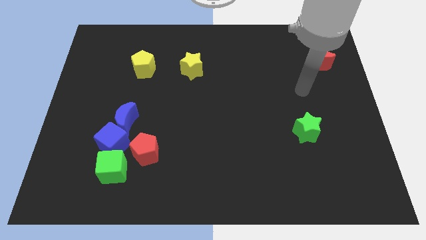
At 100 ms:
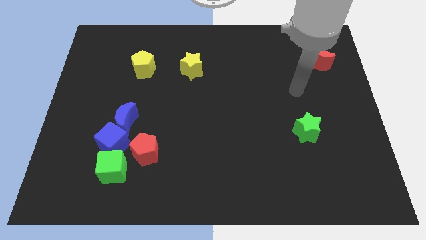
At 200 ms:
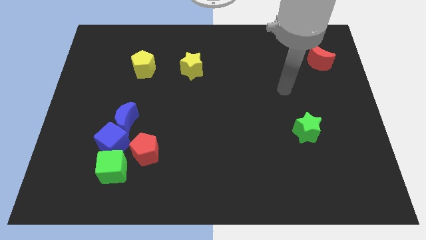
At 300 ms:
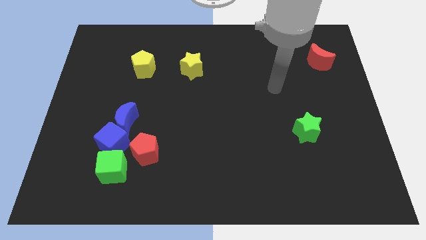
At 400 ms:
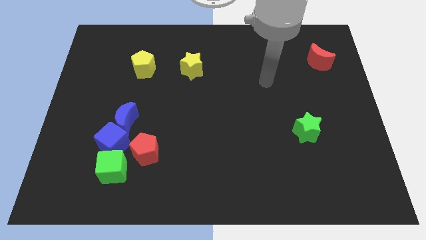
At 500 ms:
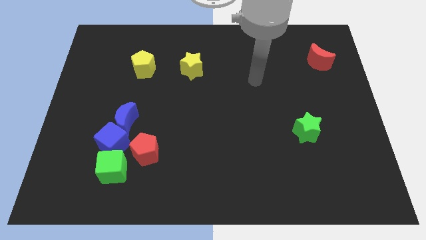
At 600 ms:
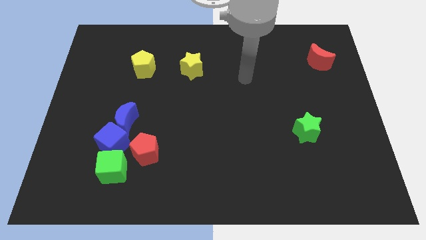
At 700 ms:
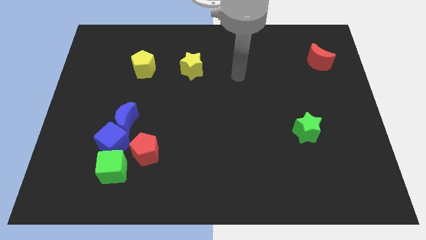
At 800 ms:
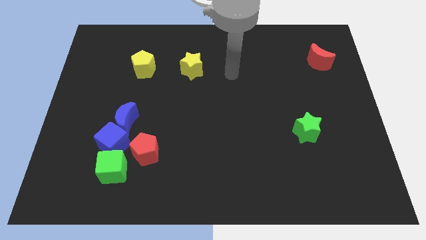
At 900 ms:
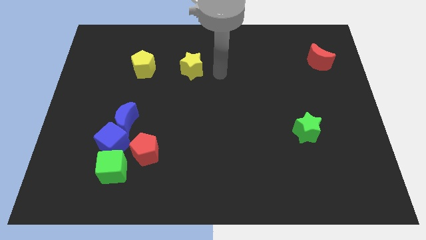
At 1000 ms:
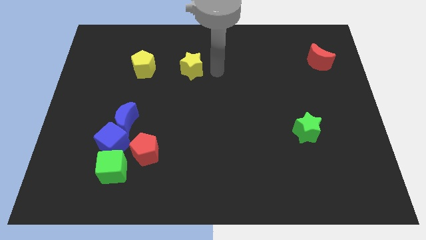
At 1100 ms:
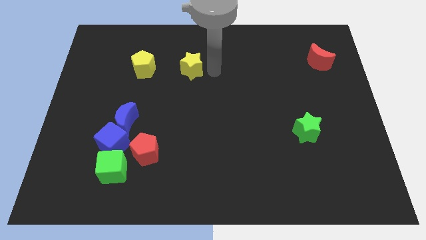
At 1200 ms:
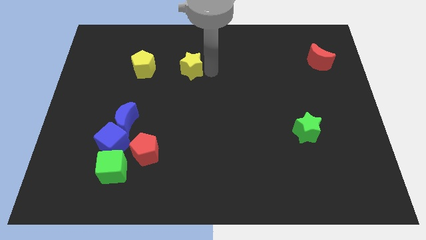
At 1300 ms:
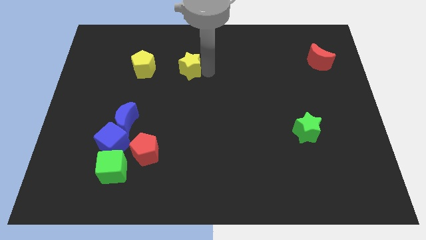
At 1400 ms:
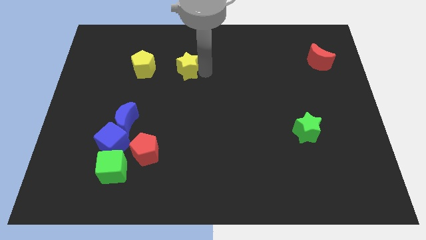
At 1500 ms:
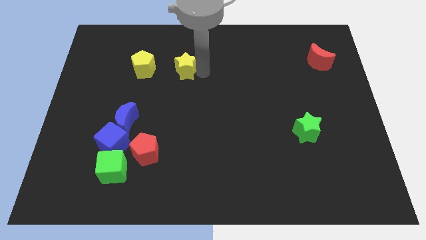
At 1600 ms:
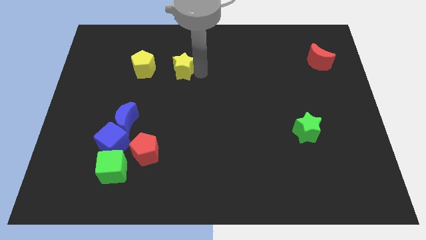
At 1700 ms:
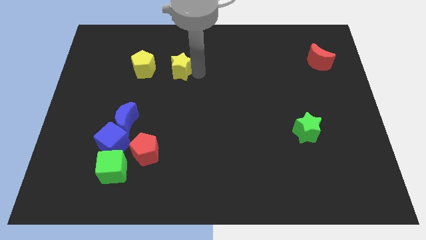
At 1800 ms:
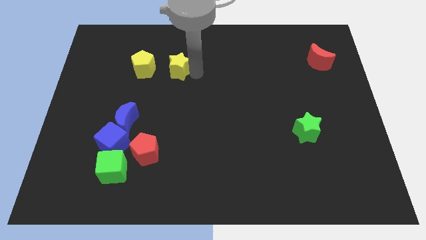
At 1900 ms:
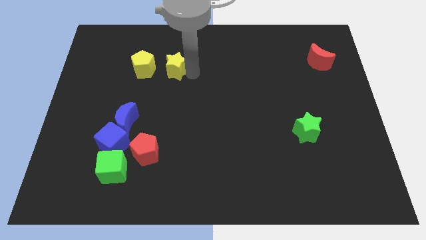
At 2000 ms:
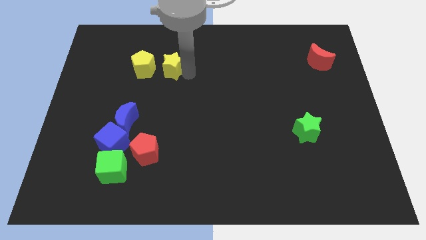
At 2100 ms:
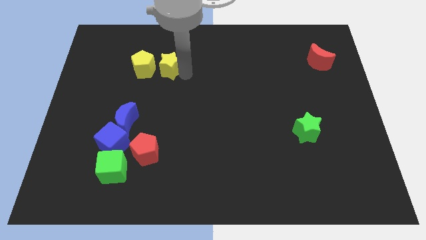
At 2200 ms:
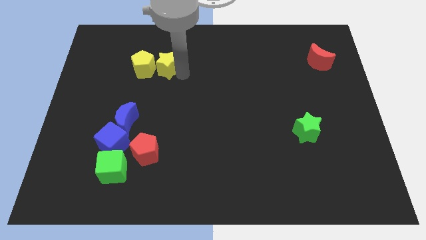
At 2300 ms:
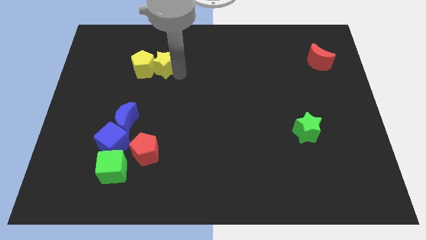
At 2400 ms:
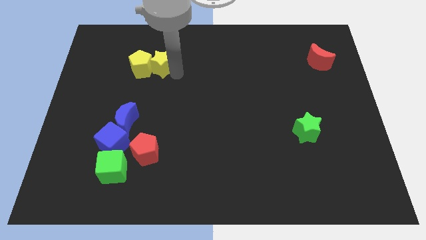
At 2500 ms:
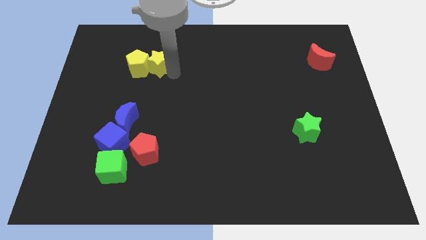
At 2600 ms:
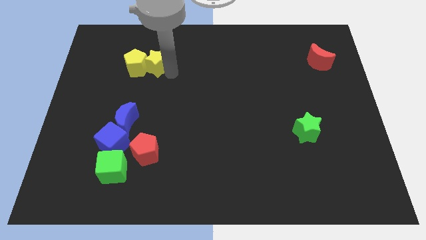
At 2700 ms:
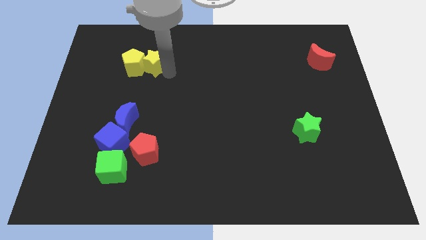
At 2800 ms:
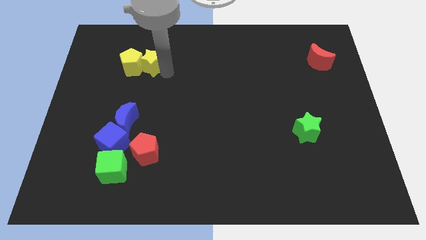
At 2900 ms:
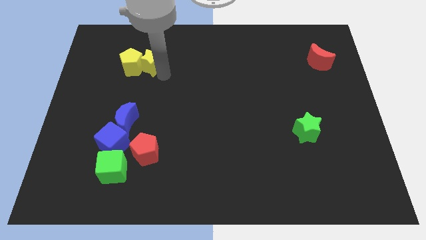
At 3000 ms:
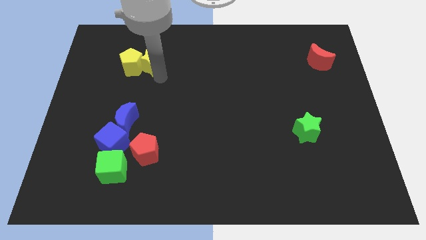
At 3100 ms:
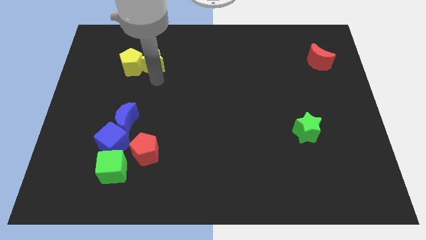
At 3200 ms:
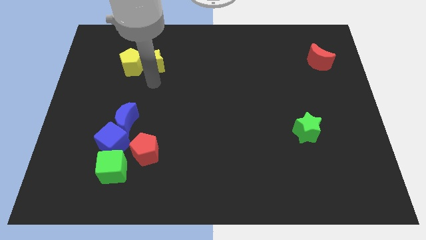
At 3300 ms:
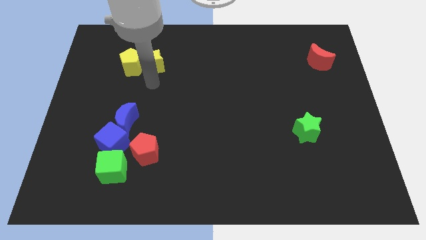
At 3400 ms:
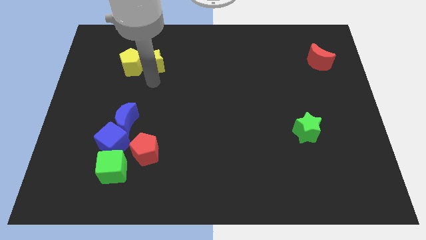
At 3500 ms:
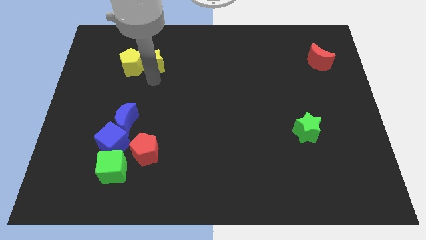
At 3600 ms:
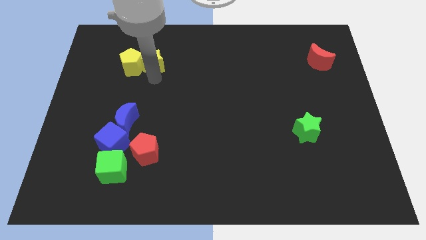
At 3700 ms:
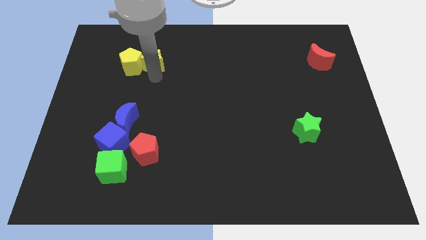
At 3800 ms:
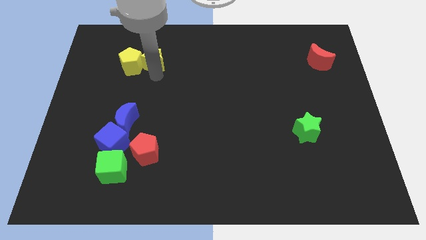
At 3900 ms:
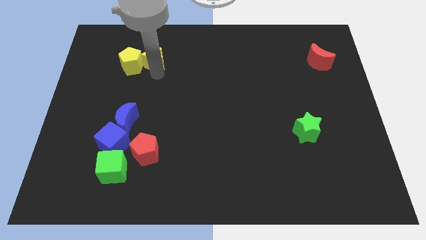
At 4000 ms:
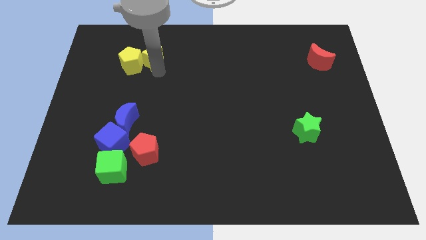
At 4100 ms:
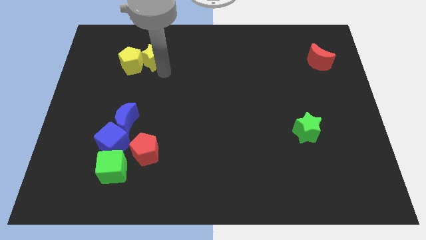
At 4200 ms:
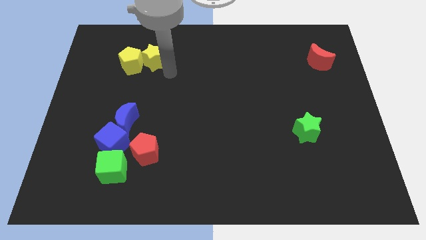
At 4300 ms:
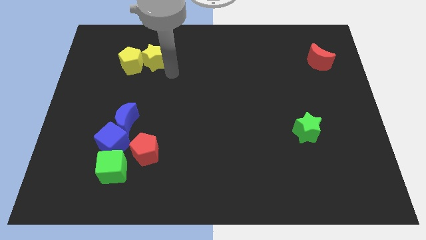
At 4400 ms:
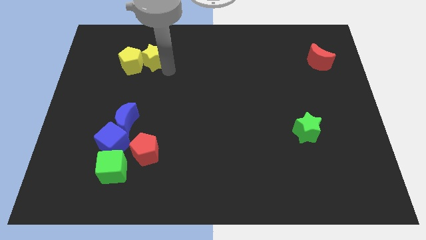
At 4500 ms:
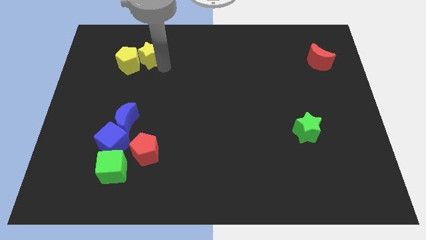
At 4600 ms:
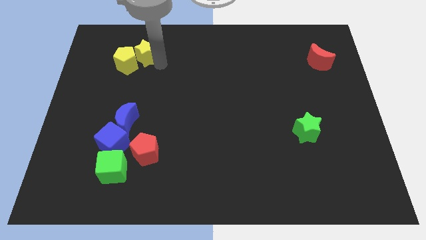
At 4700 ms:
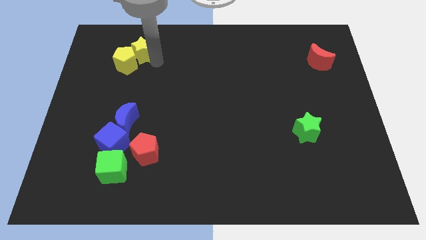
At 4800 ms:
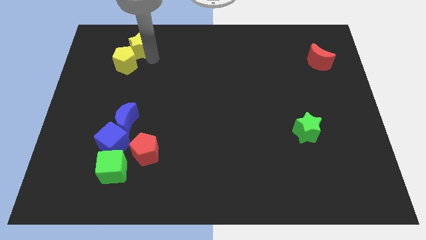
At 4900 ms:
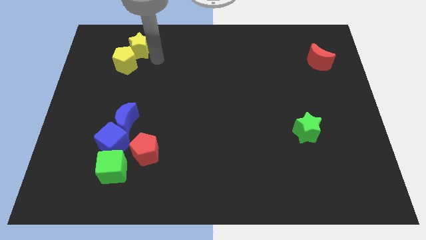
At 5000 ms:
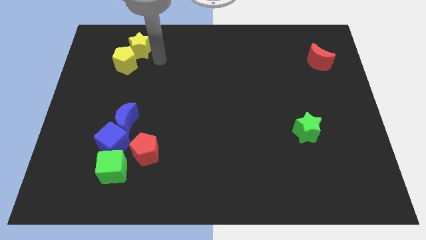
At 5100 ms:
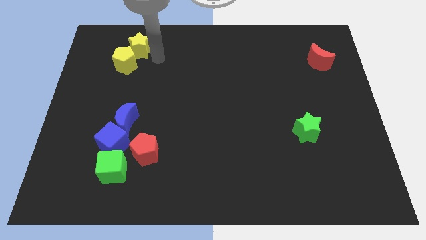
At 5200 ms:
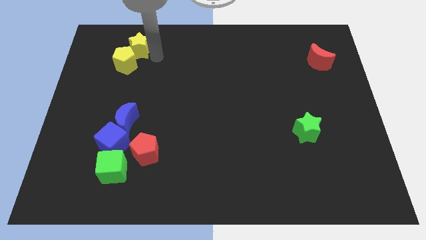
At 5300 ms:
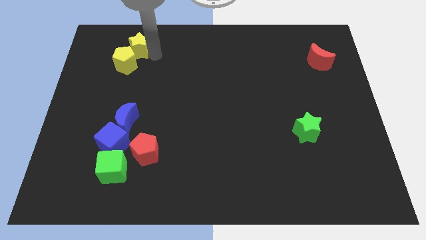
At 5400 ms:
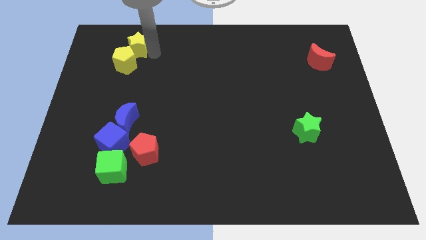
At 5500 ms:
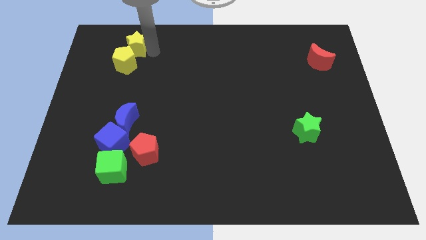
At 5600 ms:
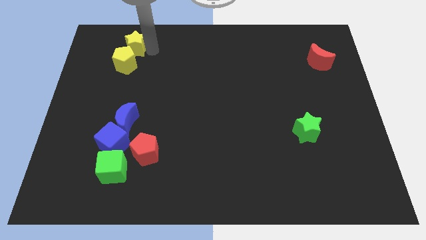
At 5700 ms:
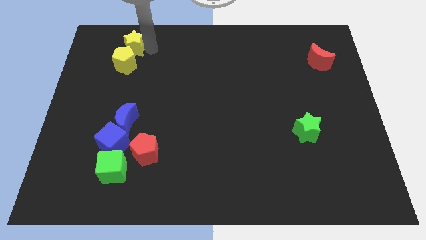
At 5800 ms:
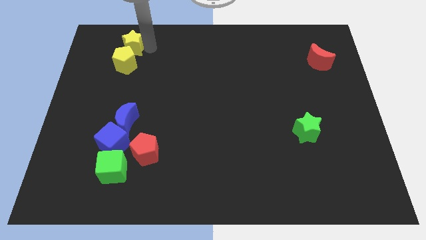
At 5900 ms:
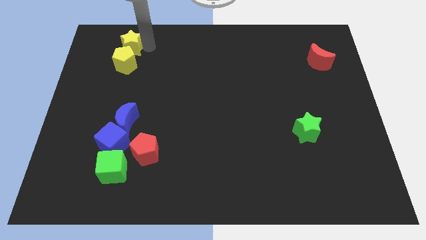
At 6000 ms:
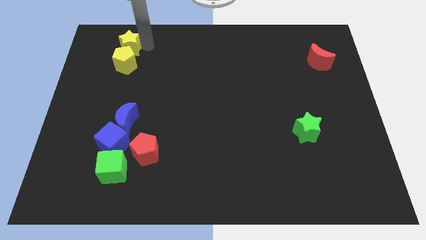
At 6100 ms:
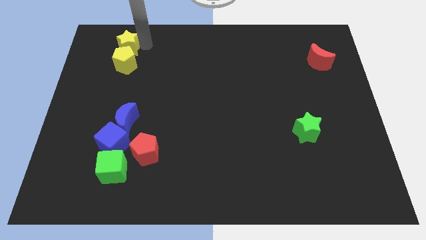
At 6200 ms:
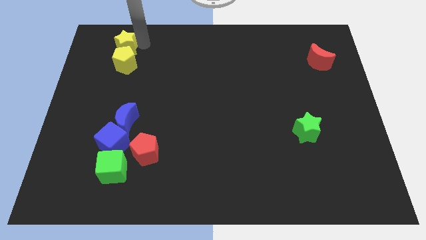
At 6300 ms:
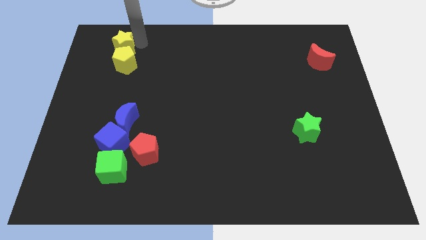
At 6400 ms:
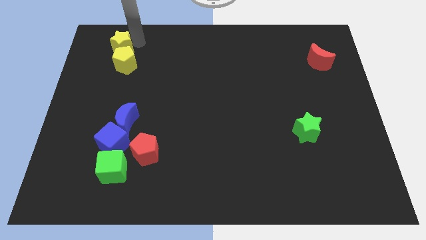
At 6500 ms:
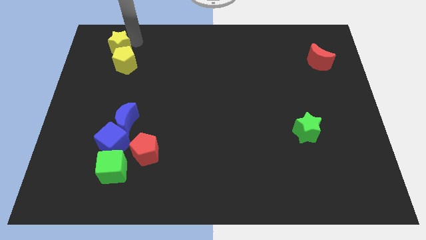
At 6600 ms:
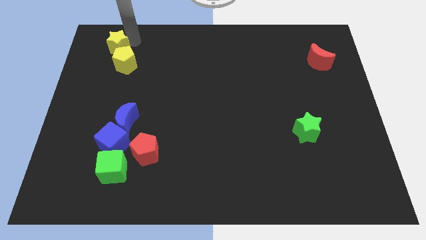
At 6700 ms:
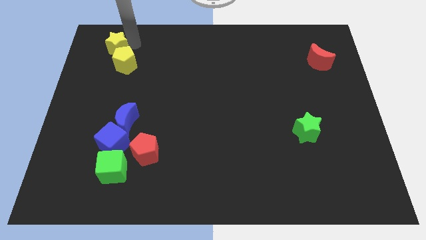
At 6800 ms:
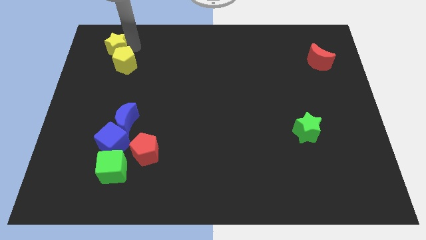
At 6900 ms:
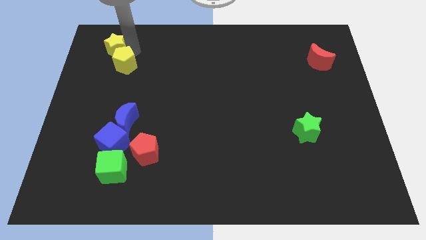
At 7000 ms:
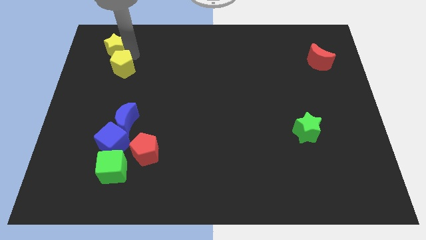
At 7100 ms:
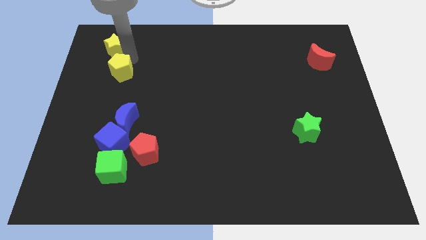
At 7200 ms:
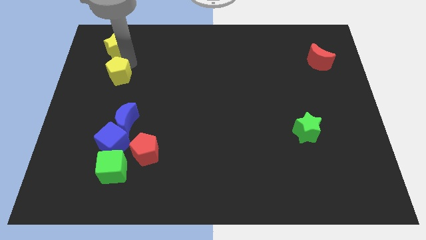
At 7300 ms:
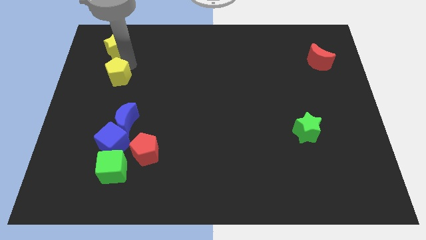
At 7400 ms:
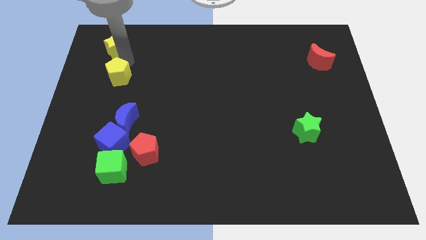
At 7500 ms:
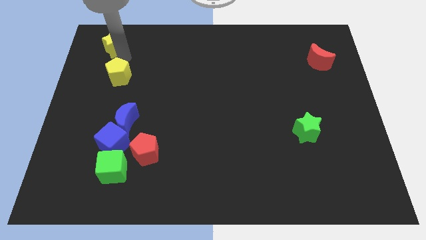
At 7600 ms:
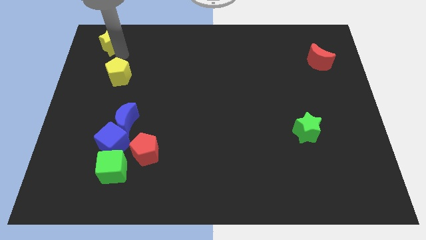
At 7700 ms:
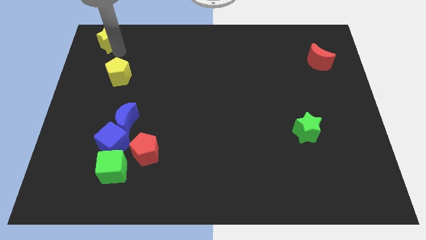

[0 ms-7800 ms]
move the yellow star to the top left
